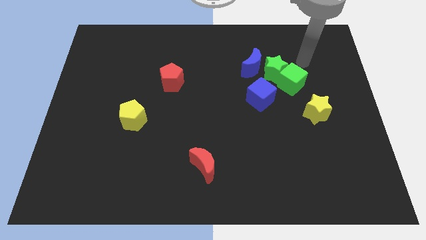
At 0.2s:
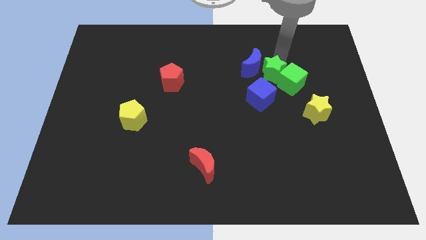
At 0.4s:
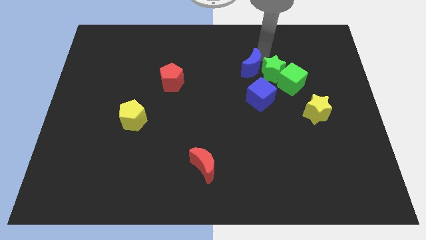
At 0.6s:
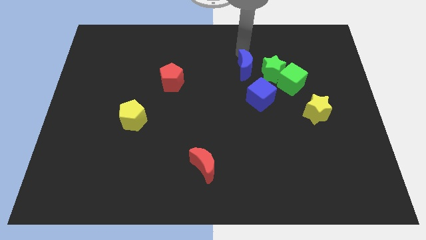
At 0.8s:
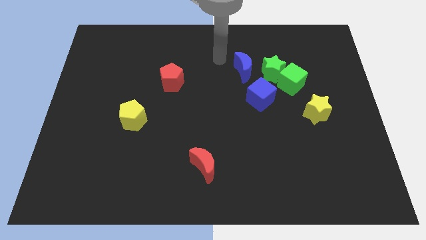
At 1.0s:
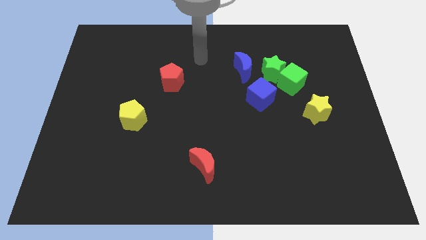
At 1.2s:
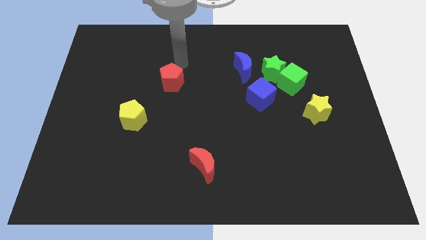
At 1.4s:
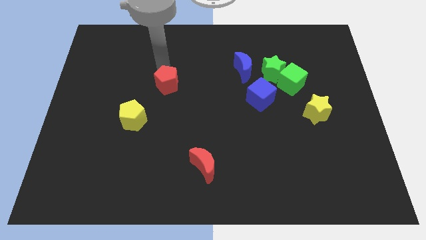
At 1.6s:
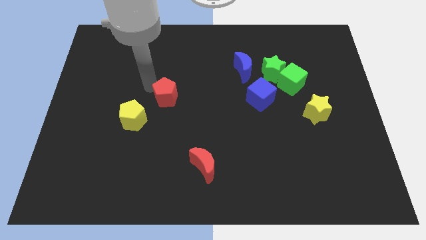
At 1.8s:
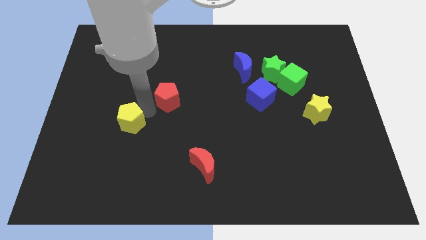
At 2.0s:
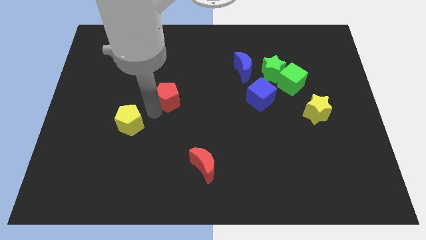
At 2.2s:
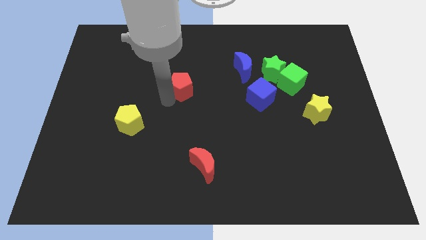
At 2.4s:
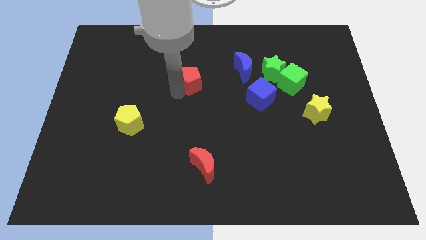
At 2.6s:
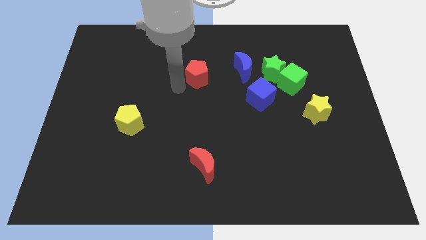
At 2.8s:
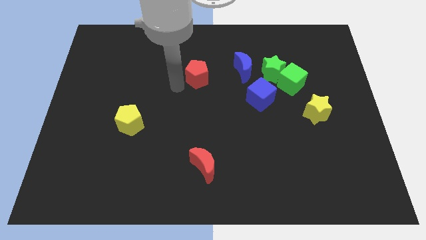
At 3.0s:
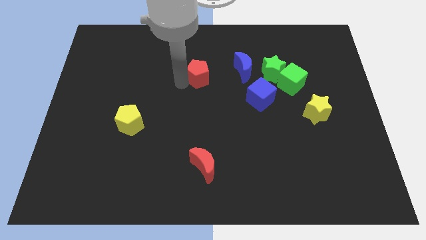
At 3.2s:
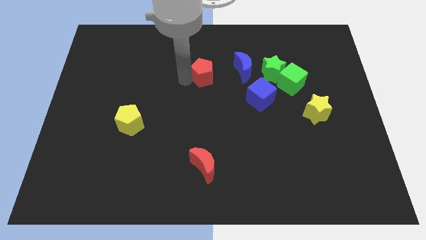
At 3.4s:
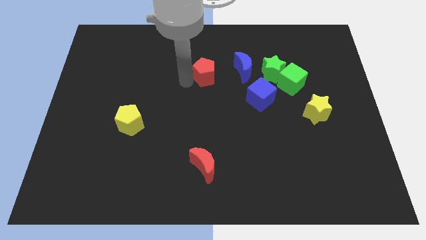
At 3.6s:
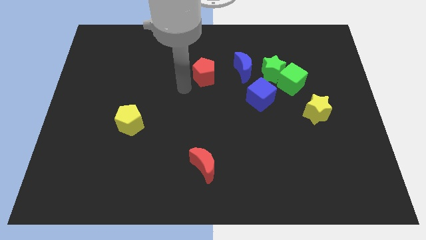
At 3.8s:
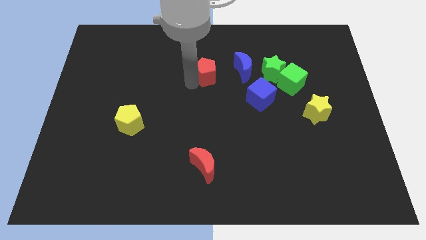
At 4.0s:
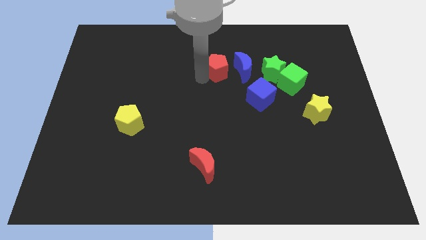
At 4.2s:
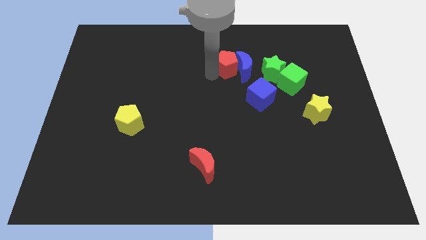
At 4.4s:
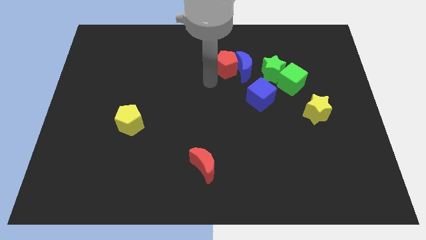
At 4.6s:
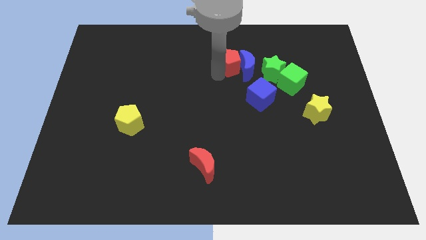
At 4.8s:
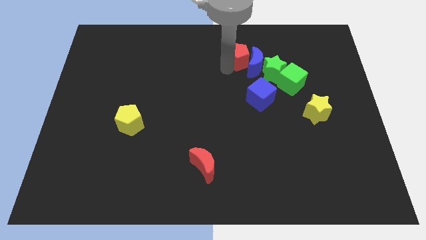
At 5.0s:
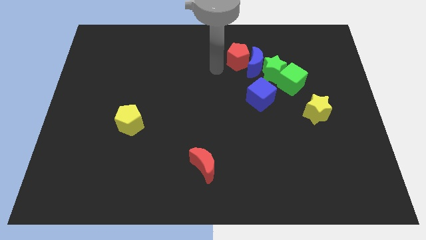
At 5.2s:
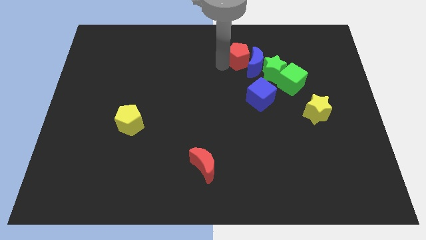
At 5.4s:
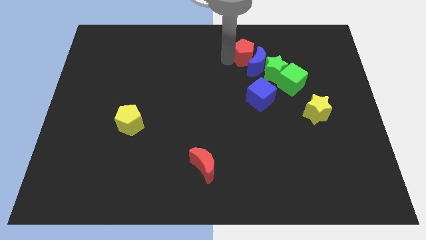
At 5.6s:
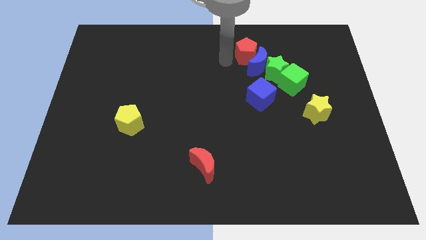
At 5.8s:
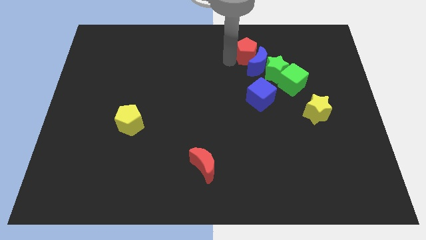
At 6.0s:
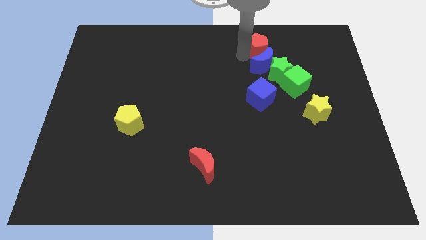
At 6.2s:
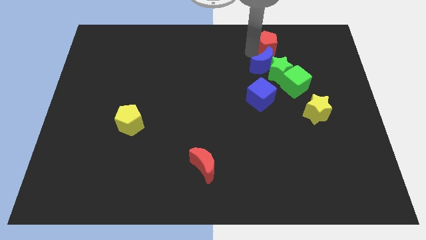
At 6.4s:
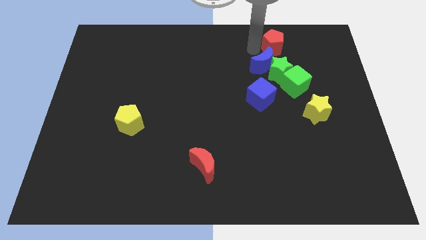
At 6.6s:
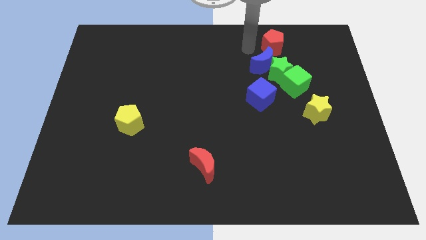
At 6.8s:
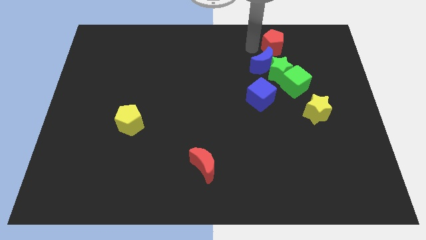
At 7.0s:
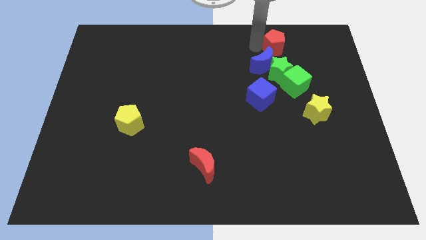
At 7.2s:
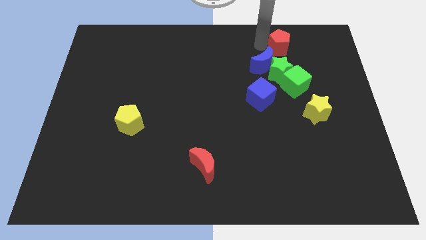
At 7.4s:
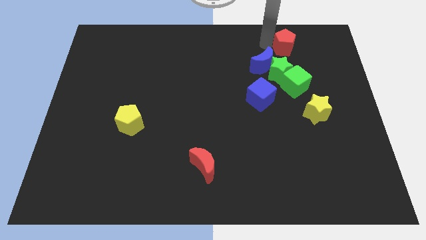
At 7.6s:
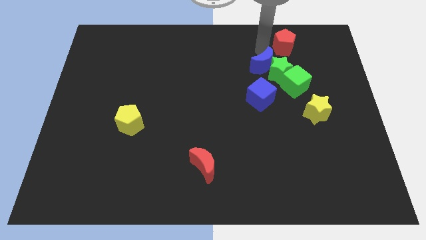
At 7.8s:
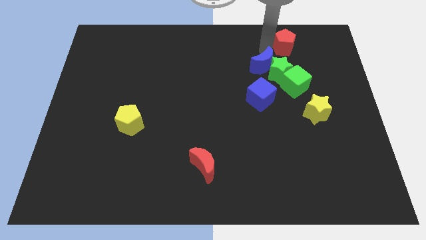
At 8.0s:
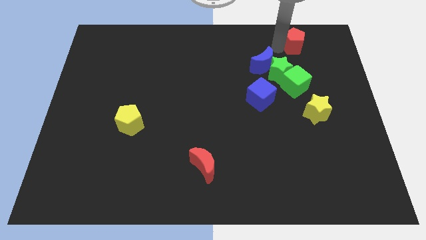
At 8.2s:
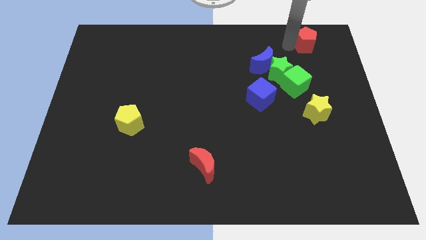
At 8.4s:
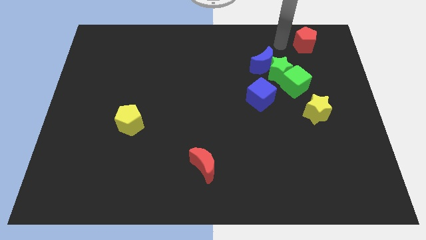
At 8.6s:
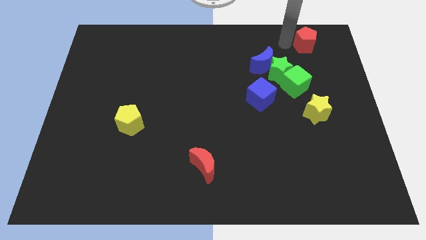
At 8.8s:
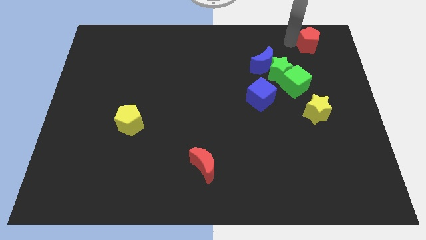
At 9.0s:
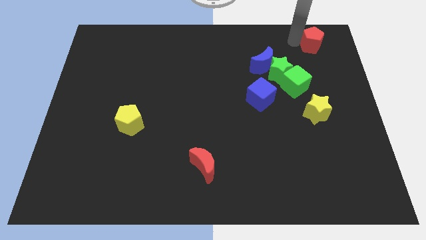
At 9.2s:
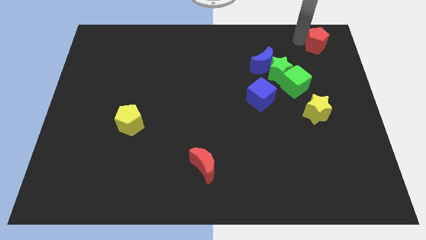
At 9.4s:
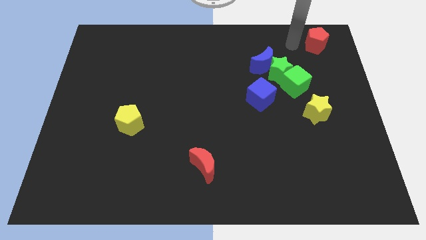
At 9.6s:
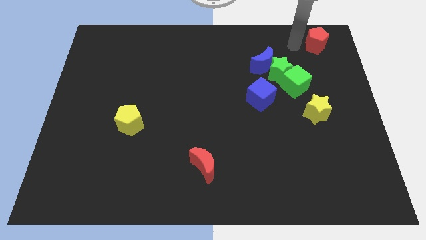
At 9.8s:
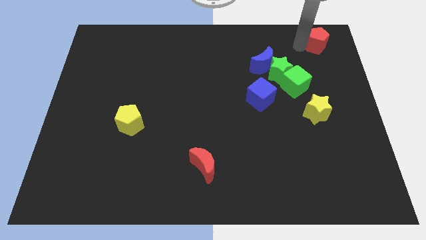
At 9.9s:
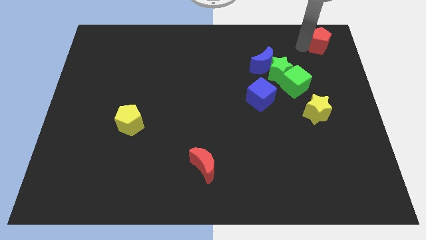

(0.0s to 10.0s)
move the red pentagon to the top right corner

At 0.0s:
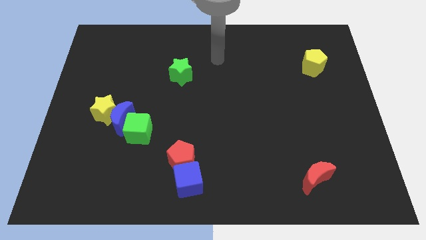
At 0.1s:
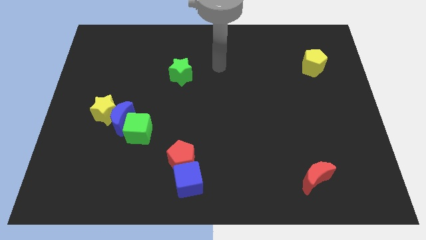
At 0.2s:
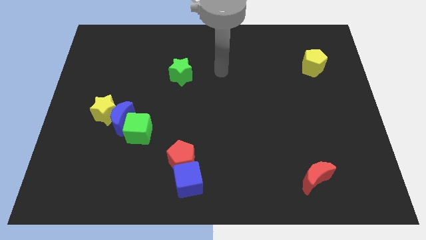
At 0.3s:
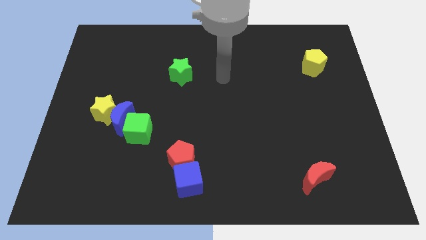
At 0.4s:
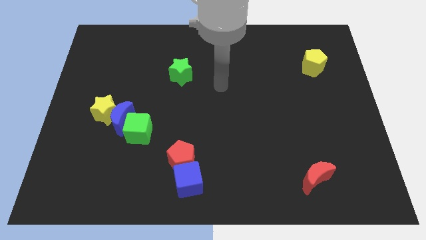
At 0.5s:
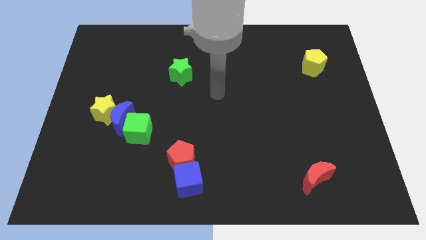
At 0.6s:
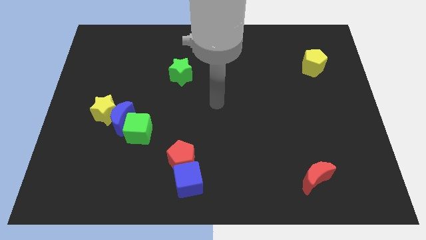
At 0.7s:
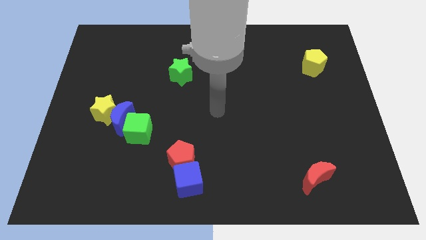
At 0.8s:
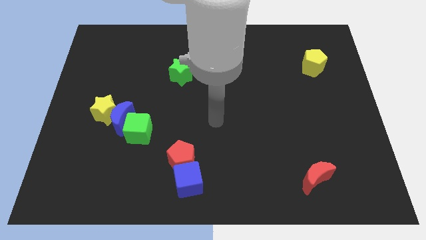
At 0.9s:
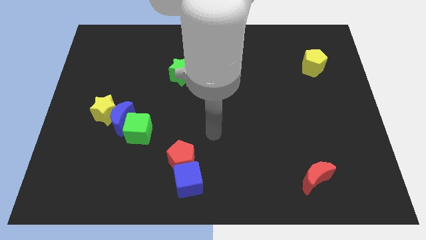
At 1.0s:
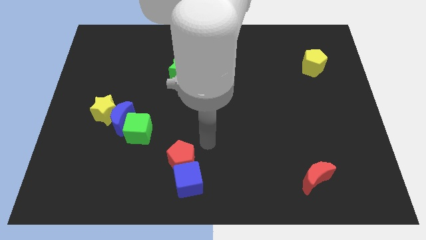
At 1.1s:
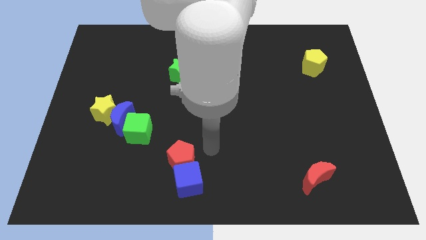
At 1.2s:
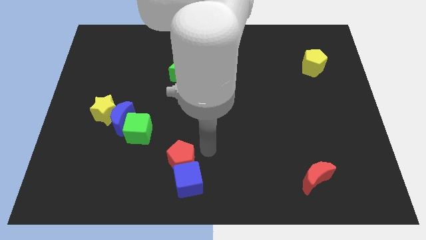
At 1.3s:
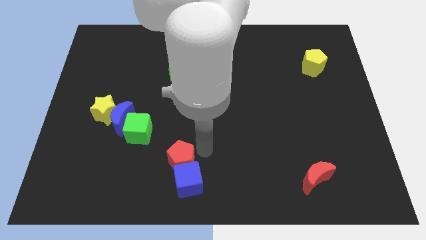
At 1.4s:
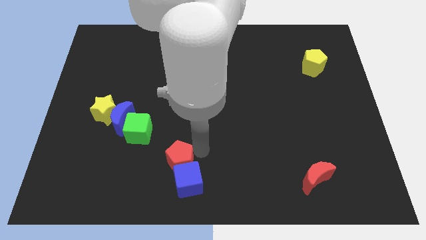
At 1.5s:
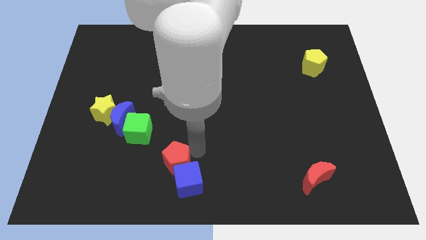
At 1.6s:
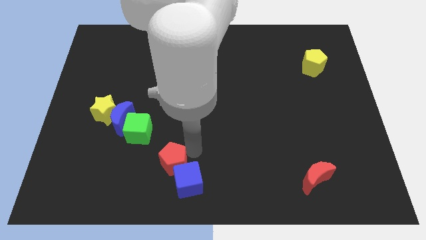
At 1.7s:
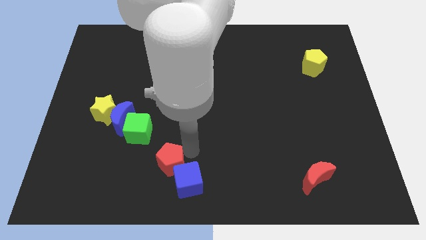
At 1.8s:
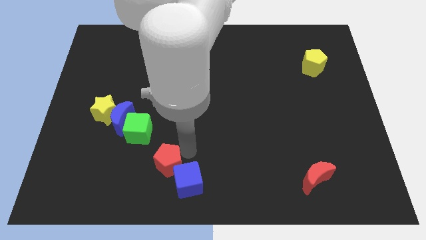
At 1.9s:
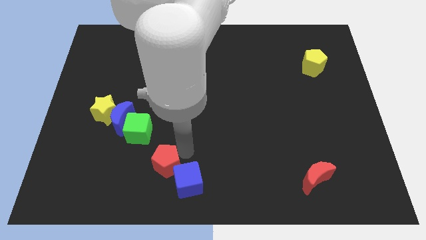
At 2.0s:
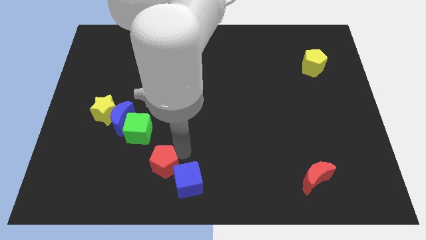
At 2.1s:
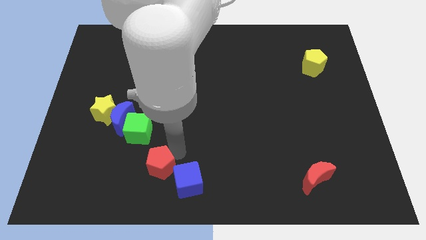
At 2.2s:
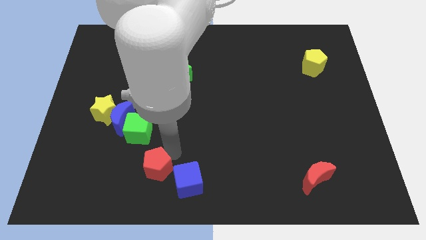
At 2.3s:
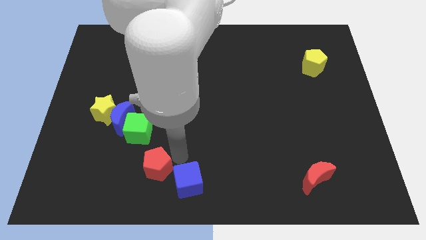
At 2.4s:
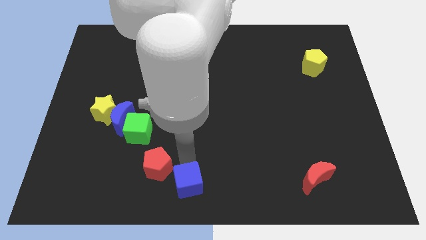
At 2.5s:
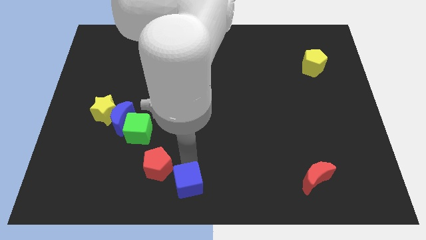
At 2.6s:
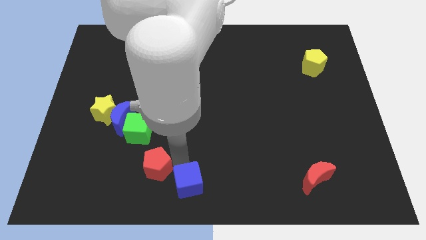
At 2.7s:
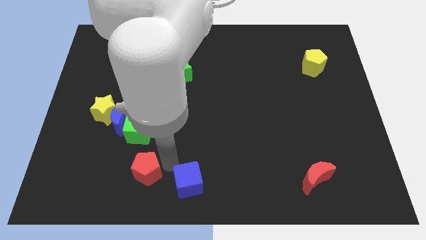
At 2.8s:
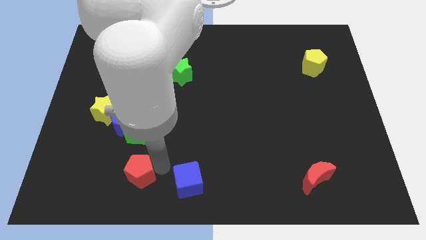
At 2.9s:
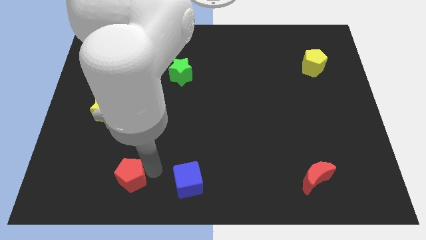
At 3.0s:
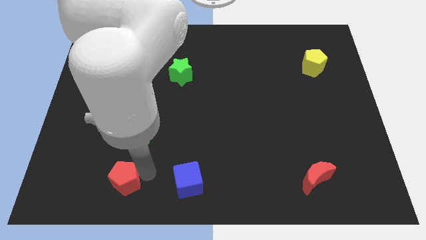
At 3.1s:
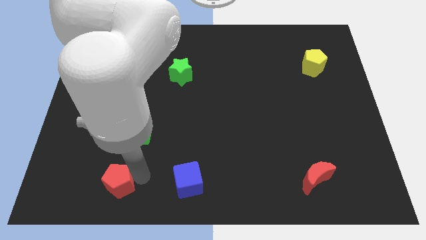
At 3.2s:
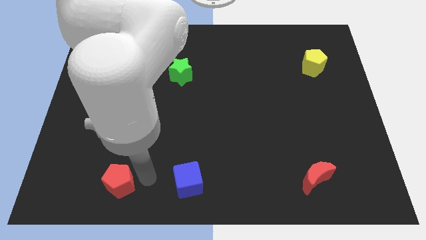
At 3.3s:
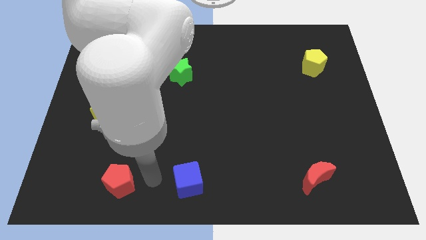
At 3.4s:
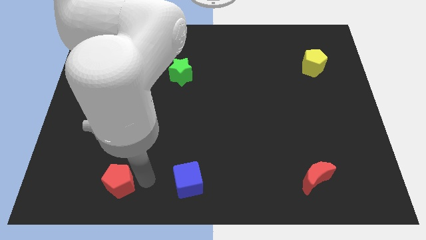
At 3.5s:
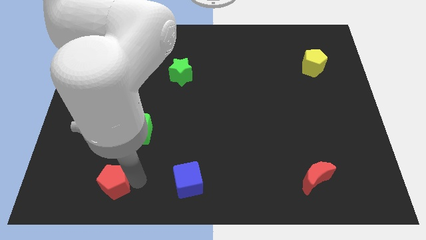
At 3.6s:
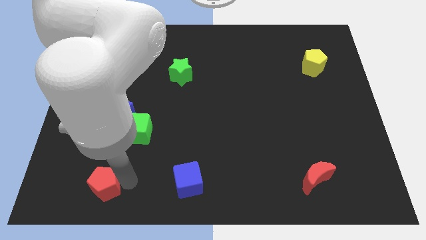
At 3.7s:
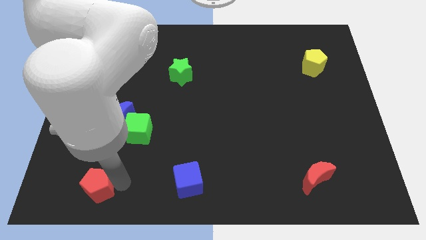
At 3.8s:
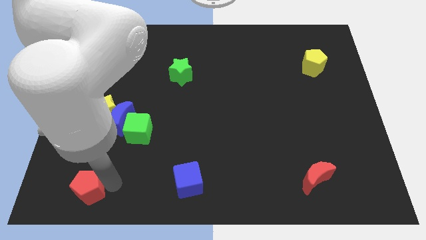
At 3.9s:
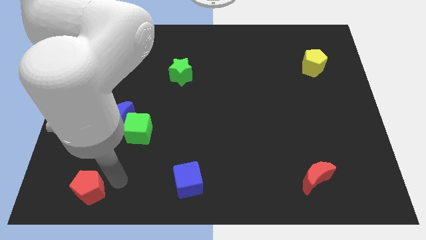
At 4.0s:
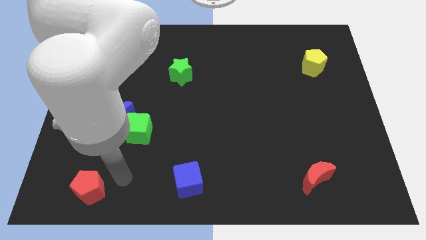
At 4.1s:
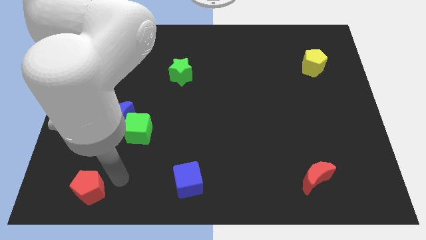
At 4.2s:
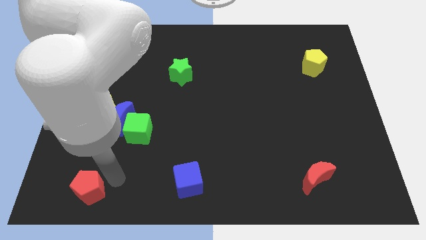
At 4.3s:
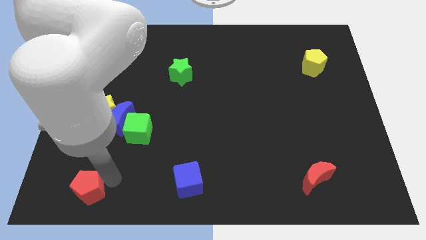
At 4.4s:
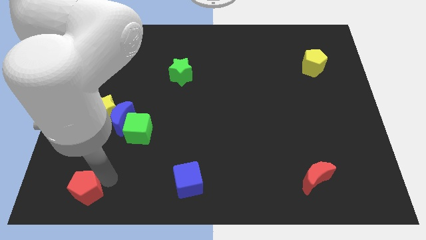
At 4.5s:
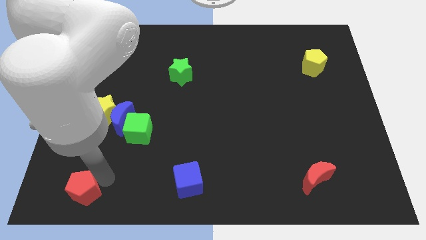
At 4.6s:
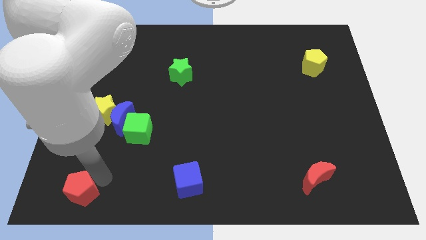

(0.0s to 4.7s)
move the red pentagon to the lower left corner
